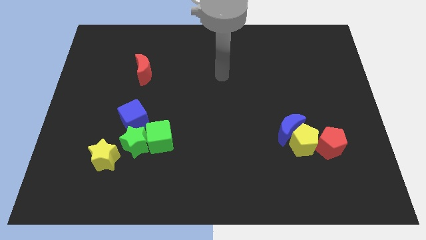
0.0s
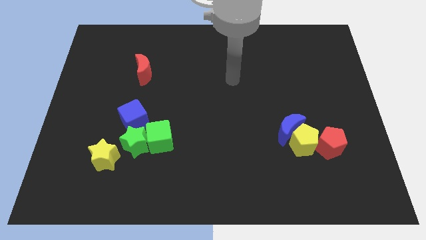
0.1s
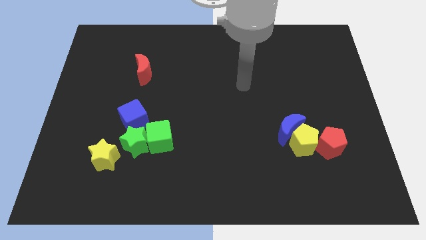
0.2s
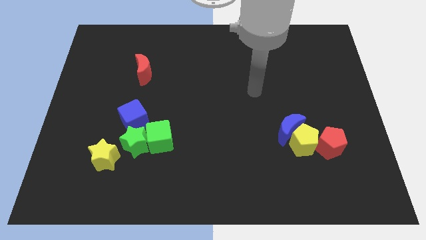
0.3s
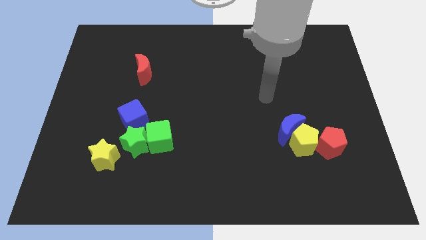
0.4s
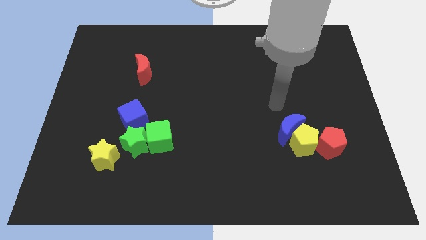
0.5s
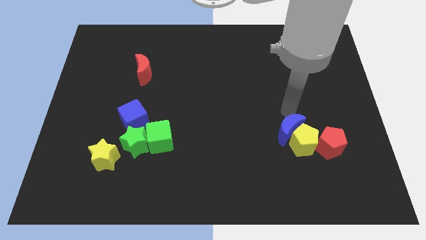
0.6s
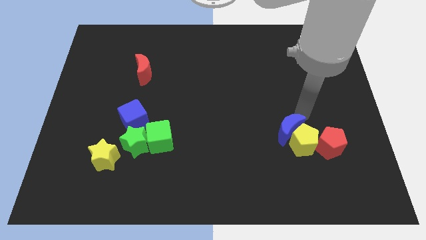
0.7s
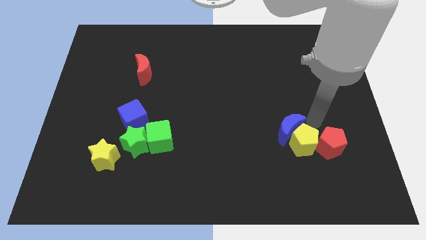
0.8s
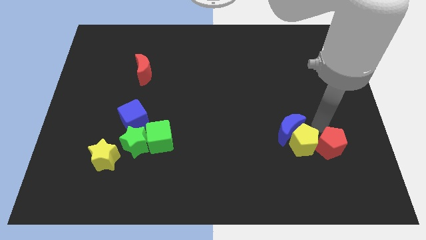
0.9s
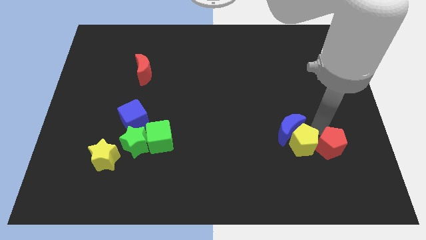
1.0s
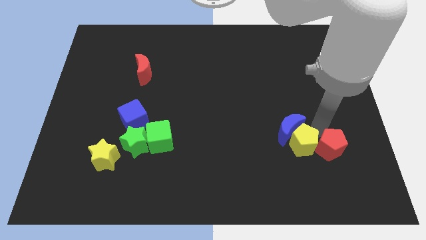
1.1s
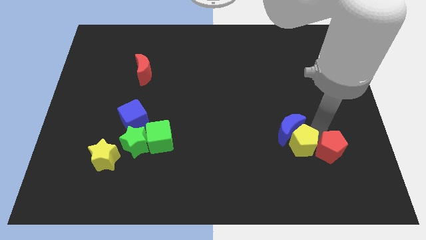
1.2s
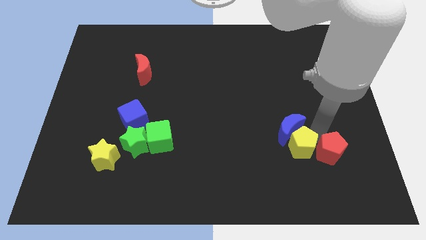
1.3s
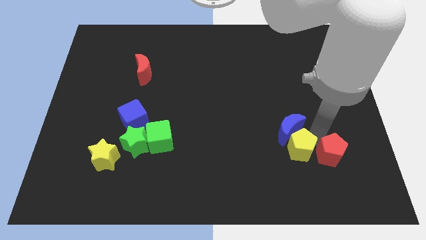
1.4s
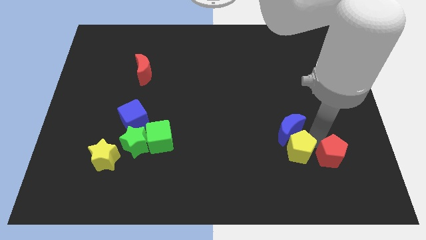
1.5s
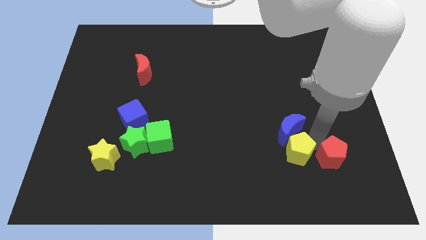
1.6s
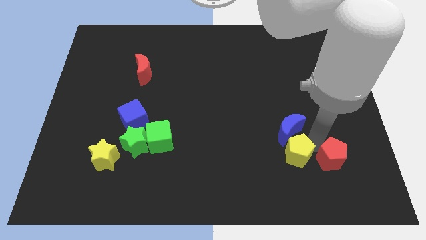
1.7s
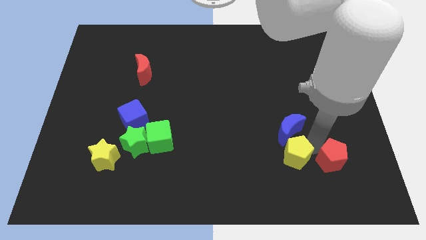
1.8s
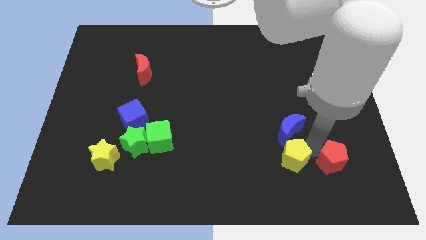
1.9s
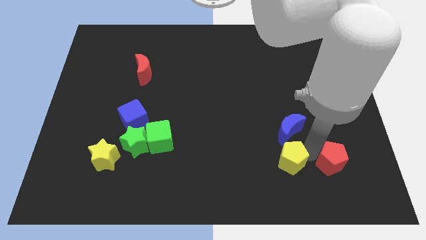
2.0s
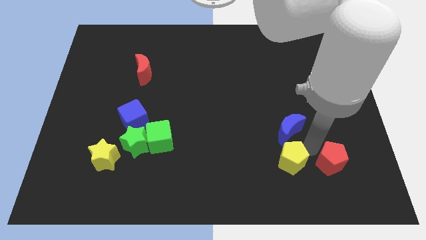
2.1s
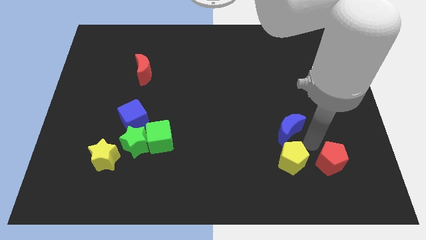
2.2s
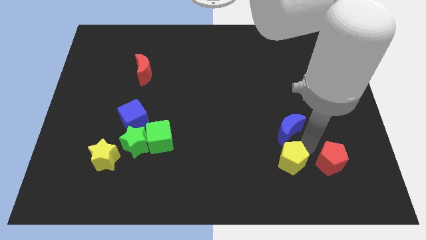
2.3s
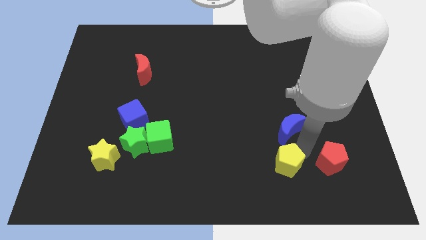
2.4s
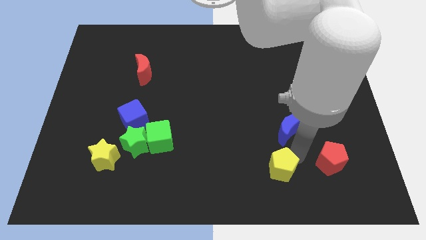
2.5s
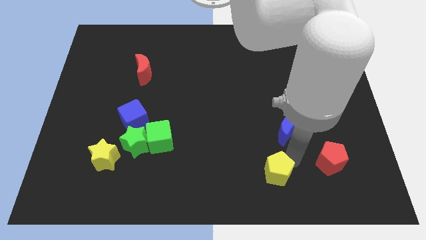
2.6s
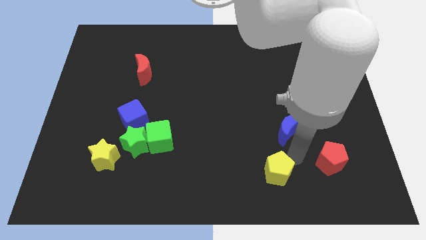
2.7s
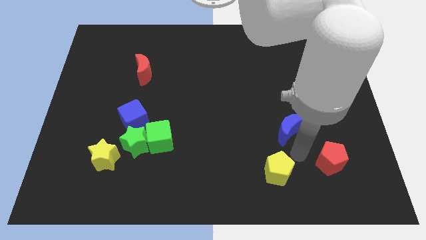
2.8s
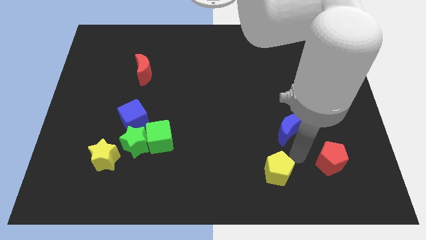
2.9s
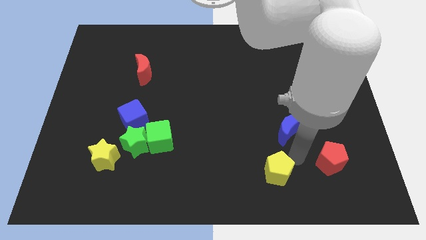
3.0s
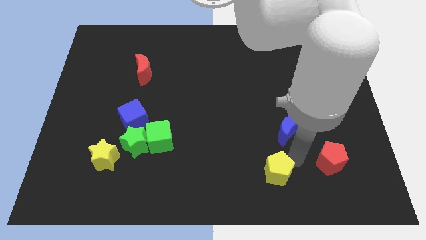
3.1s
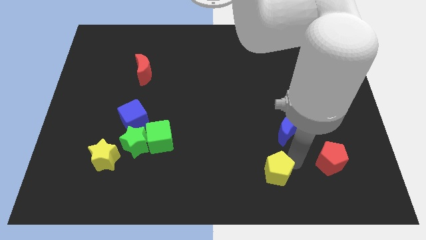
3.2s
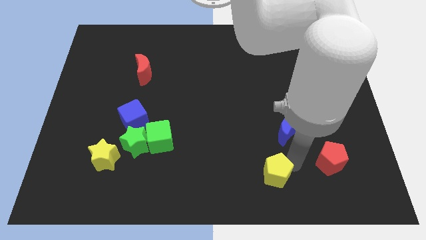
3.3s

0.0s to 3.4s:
pull the yellow pentagon apart from the blue moon and red pentagon

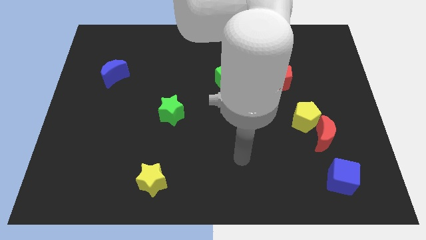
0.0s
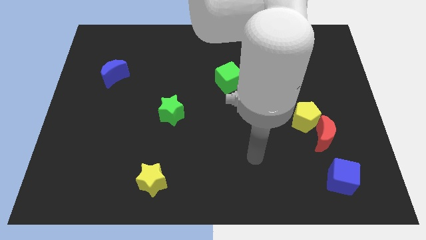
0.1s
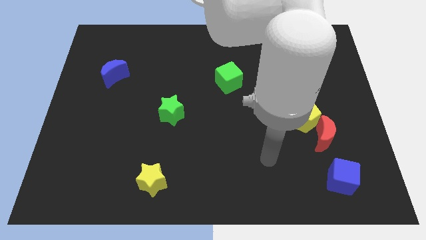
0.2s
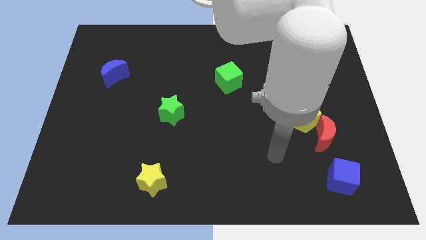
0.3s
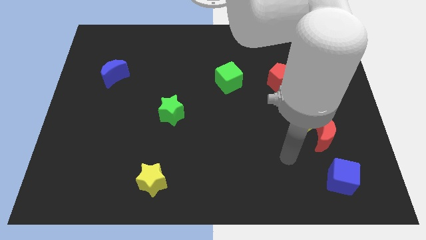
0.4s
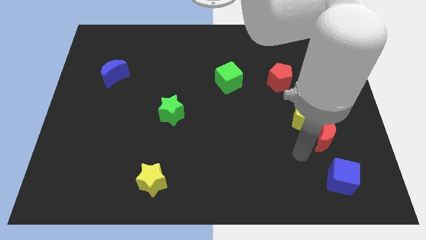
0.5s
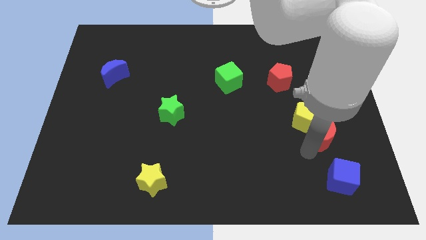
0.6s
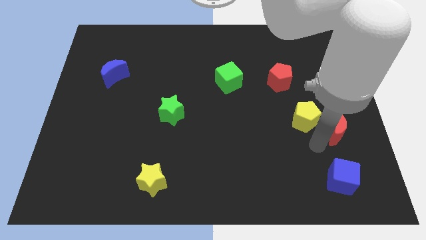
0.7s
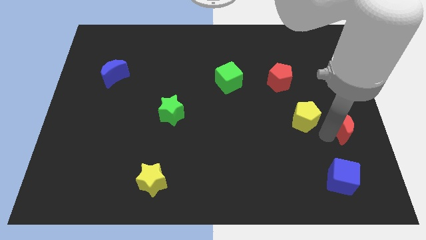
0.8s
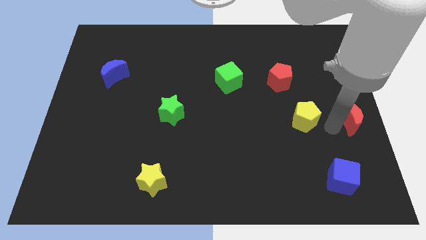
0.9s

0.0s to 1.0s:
move the yellow pentagon away from the red moon

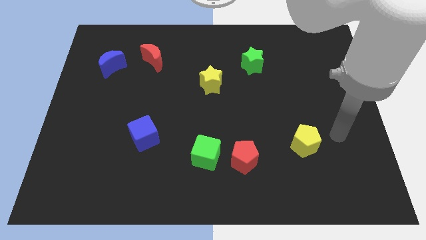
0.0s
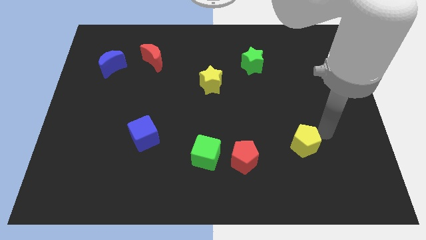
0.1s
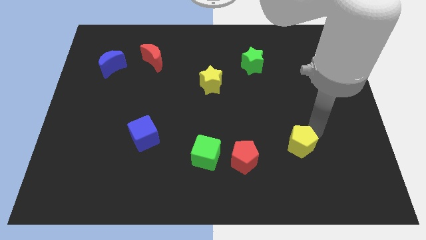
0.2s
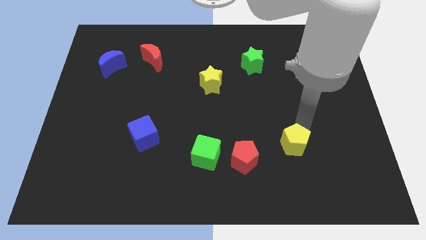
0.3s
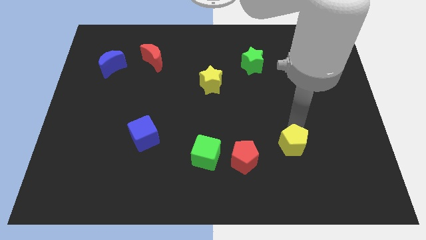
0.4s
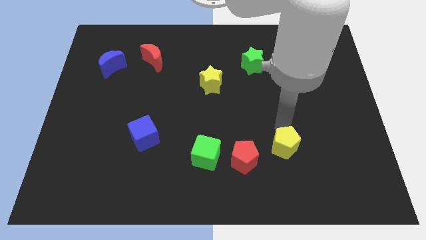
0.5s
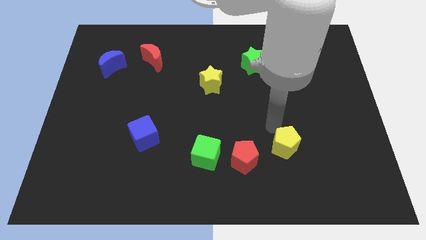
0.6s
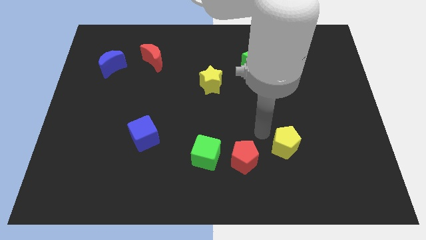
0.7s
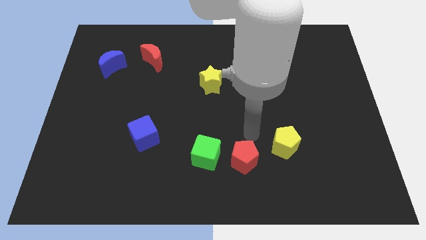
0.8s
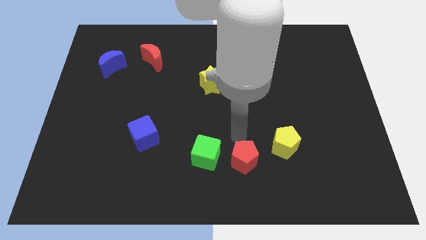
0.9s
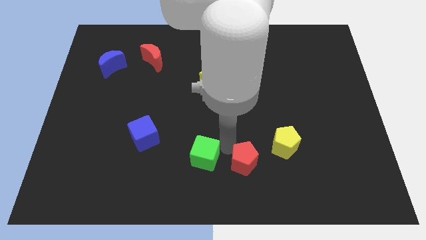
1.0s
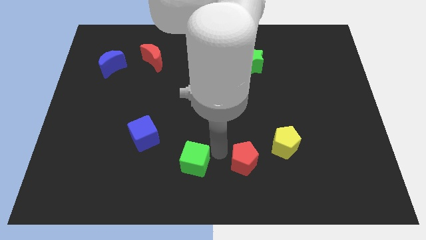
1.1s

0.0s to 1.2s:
move the red pentagon away from the green cube

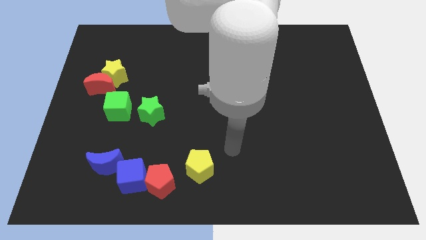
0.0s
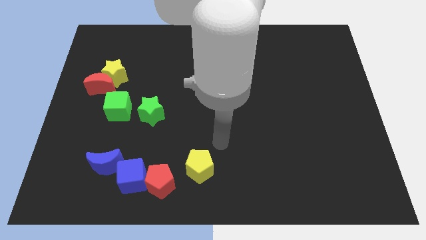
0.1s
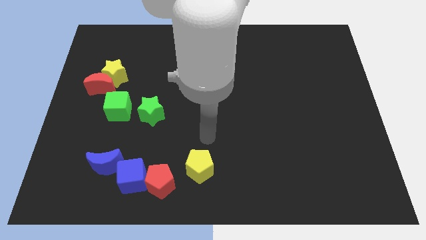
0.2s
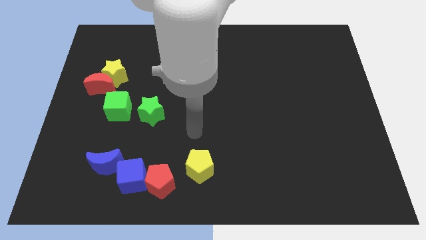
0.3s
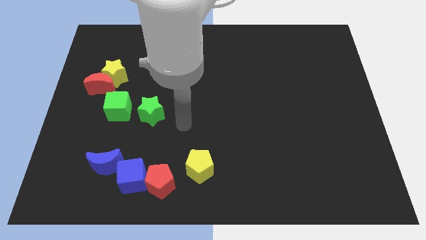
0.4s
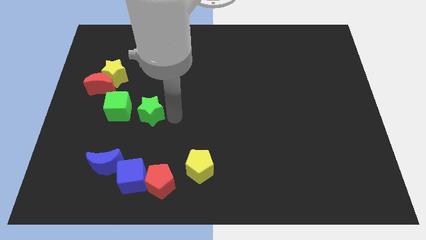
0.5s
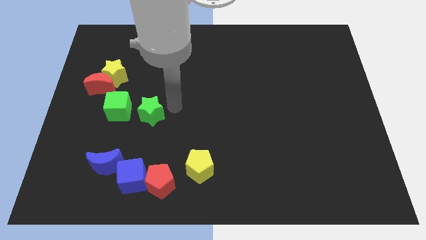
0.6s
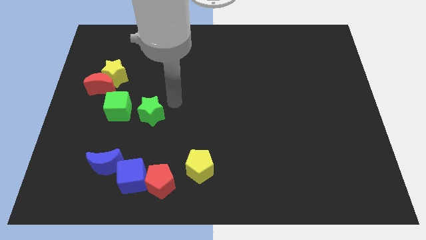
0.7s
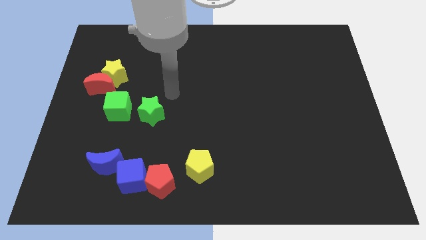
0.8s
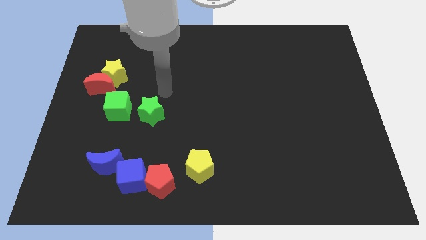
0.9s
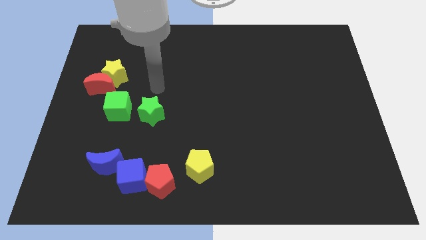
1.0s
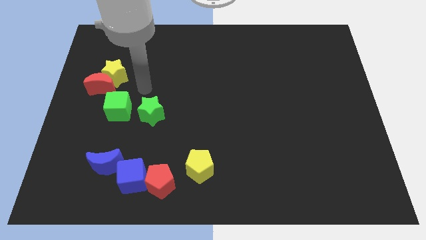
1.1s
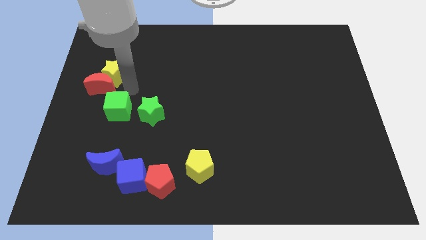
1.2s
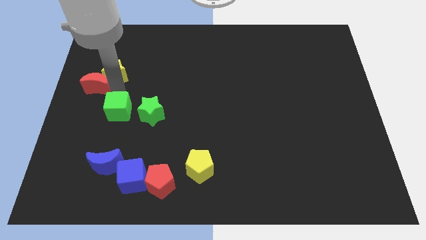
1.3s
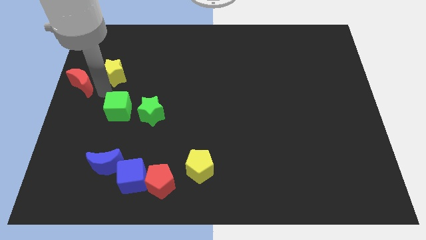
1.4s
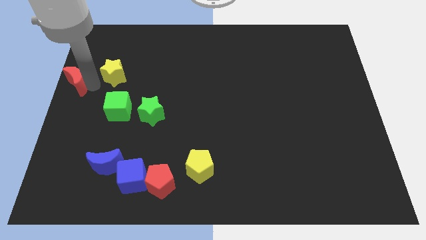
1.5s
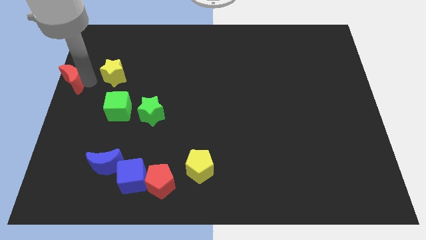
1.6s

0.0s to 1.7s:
pull the yellow star apart from the red moon

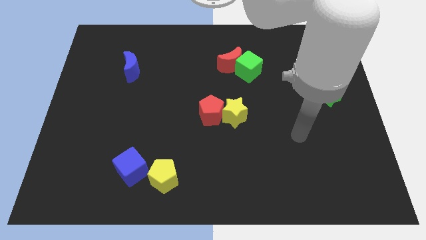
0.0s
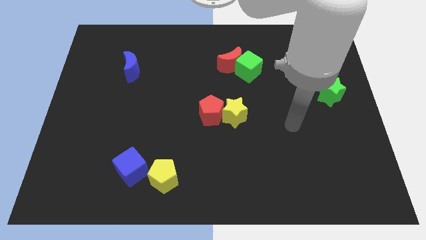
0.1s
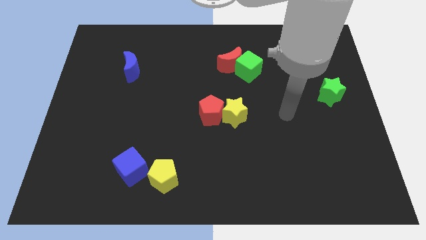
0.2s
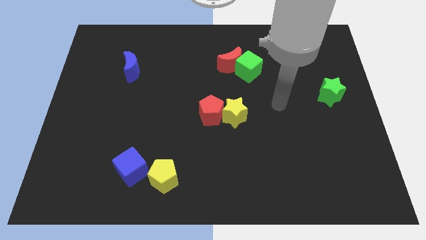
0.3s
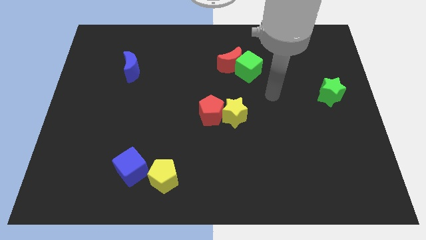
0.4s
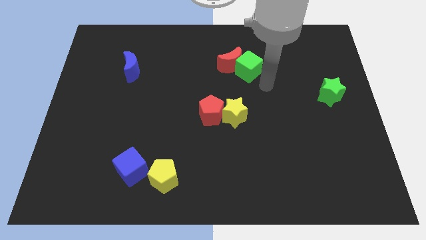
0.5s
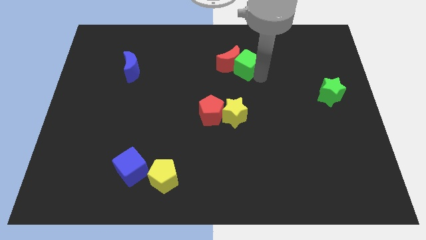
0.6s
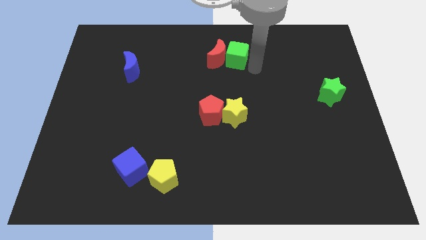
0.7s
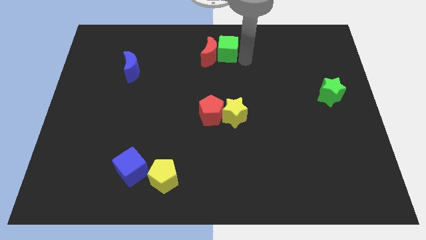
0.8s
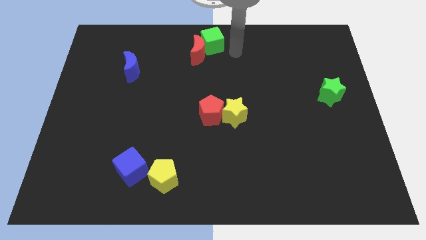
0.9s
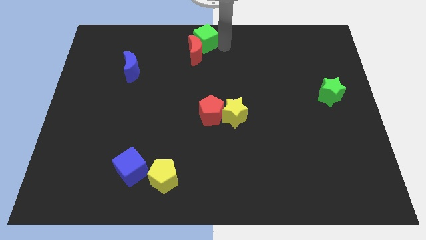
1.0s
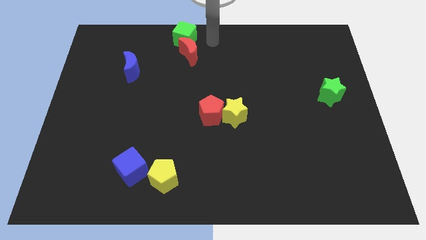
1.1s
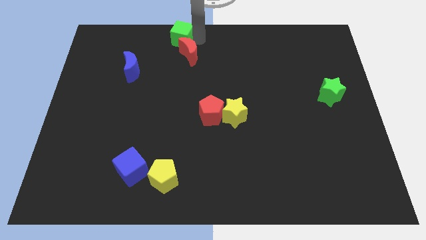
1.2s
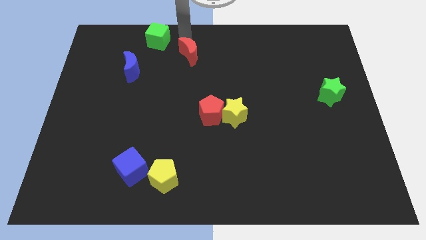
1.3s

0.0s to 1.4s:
pull the red moon apart from the green cube

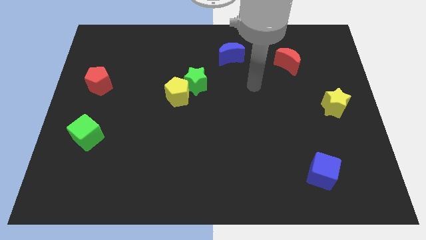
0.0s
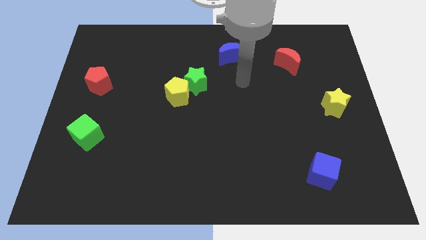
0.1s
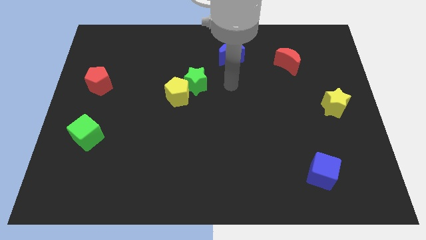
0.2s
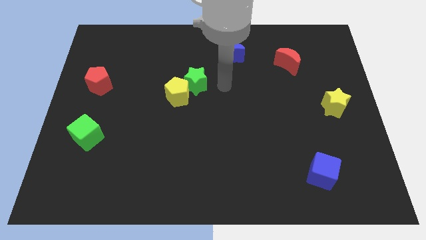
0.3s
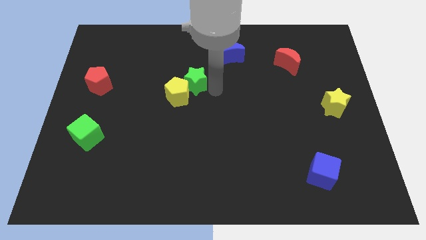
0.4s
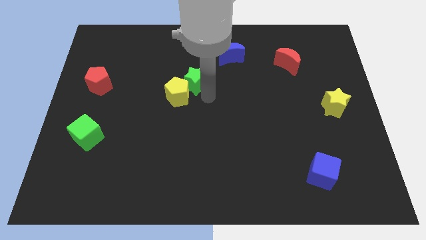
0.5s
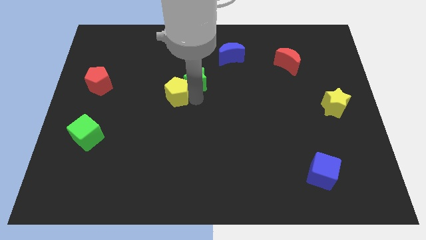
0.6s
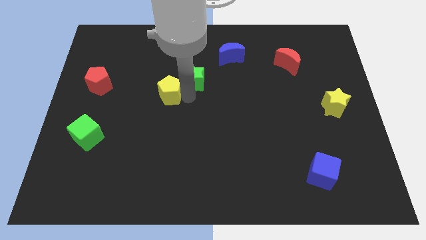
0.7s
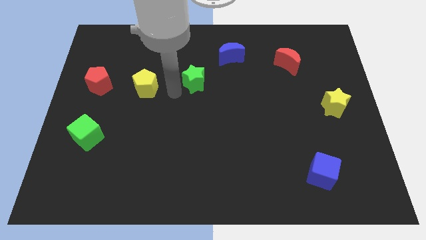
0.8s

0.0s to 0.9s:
pull the green star apart from the yellow pentagon
